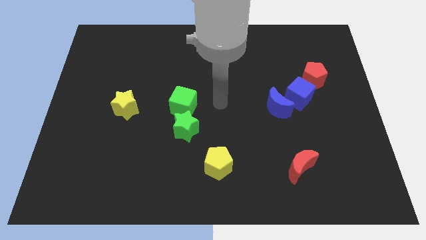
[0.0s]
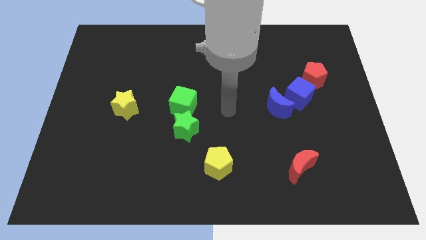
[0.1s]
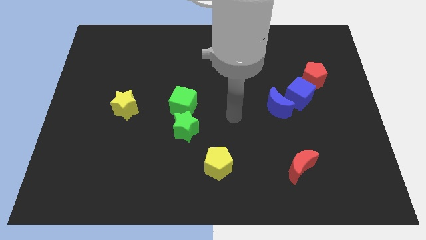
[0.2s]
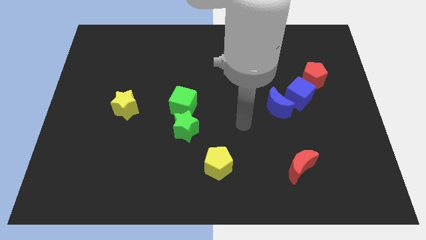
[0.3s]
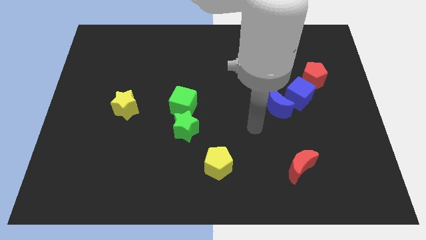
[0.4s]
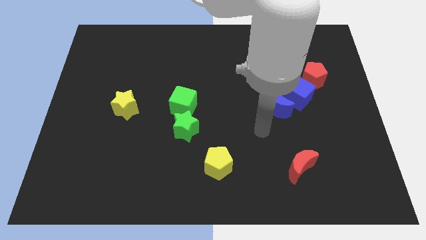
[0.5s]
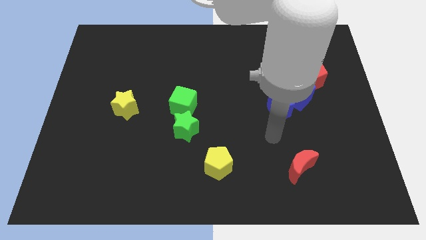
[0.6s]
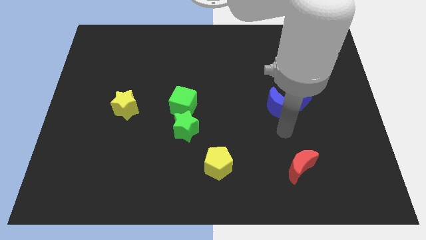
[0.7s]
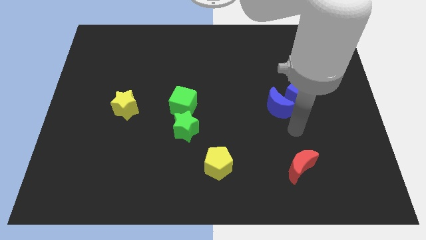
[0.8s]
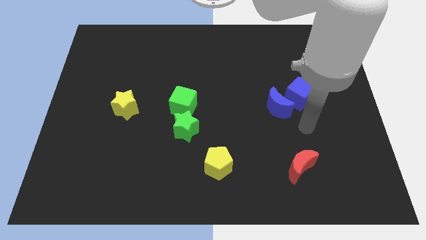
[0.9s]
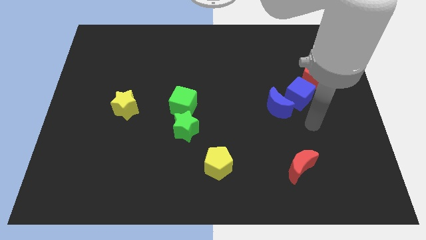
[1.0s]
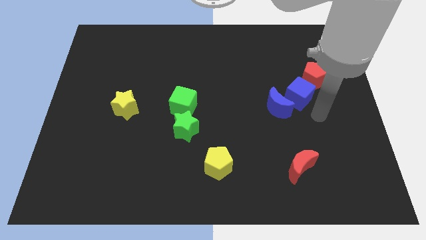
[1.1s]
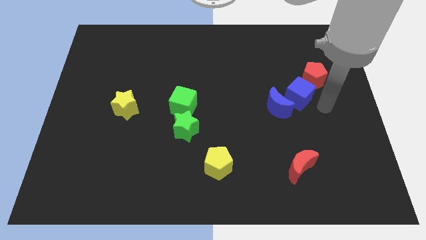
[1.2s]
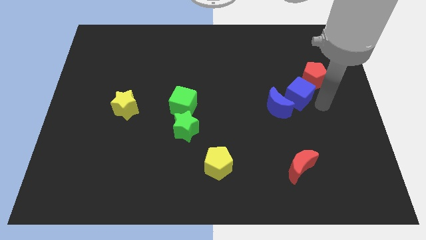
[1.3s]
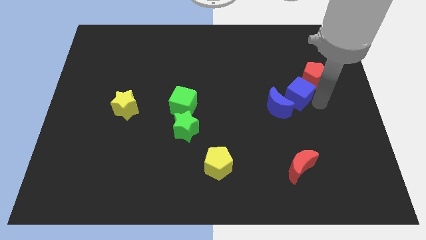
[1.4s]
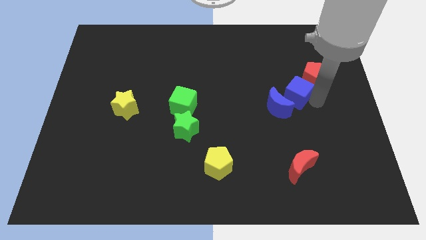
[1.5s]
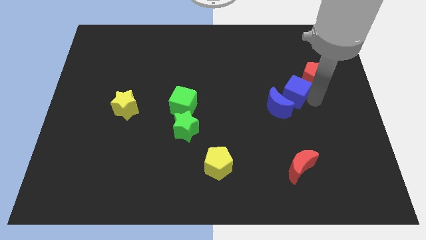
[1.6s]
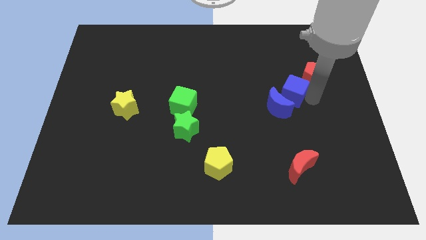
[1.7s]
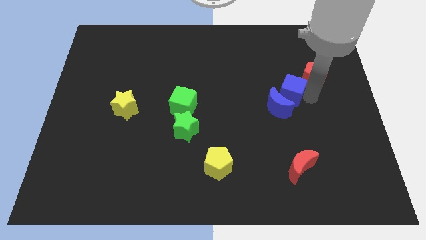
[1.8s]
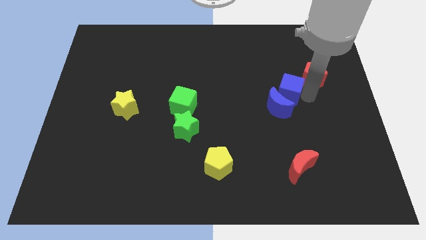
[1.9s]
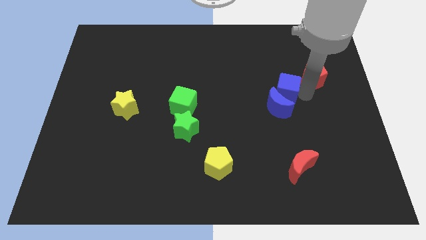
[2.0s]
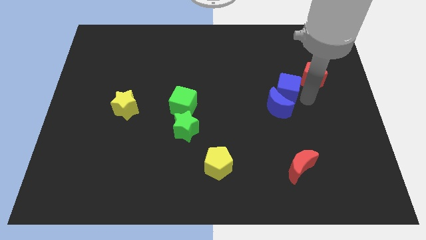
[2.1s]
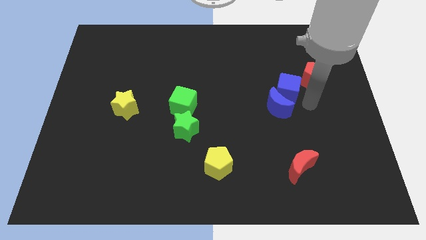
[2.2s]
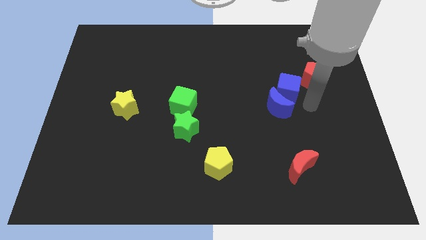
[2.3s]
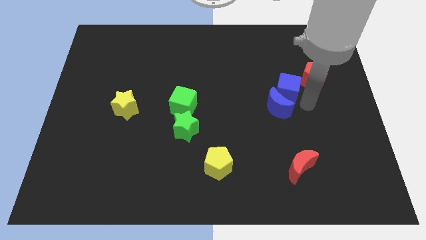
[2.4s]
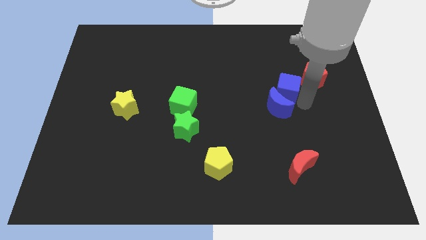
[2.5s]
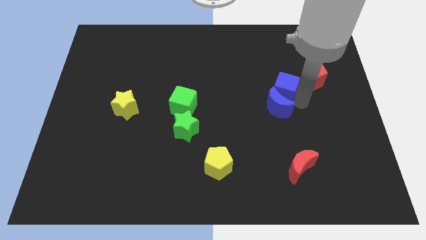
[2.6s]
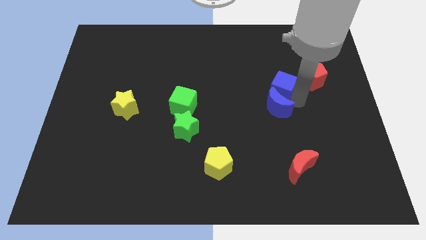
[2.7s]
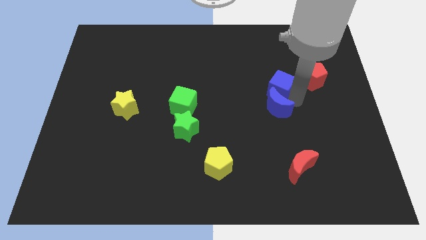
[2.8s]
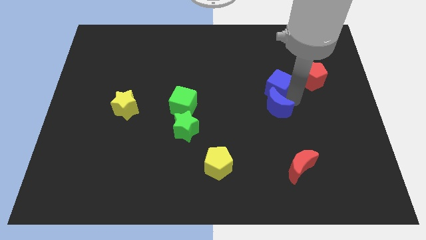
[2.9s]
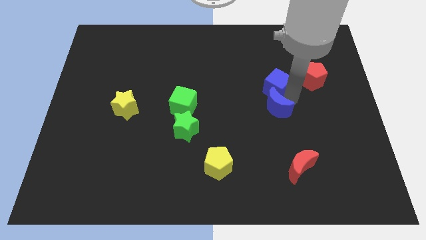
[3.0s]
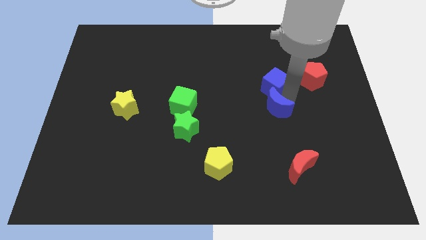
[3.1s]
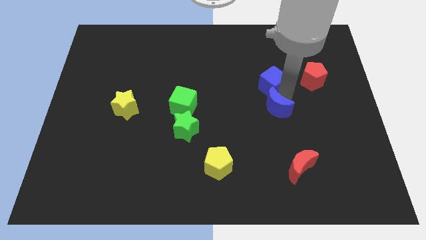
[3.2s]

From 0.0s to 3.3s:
move the blue cube upwards and to the left diagonally slightly

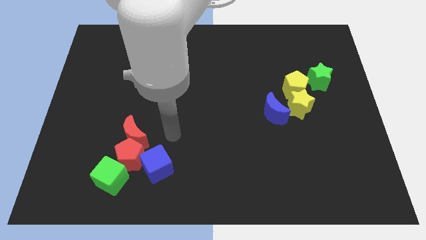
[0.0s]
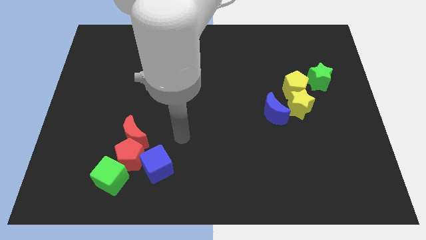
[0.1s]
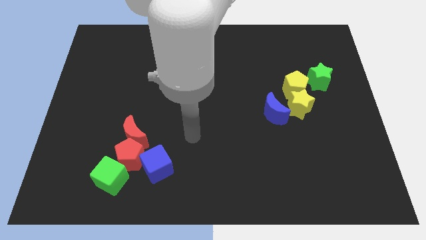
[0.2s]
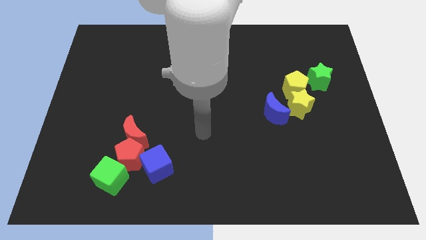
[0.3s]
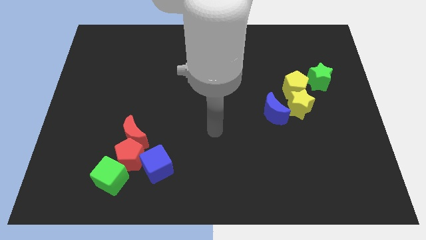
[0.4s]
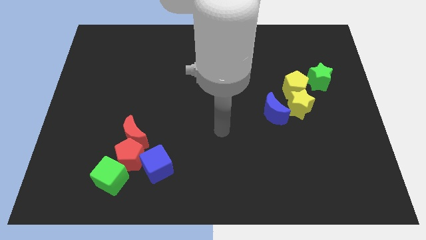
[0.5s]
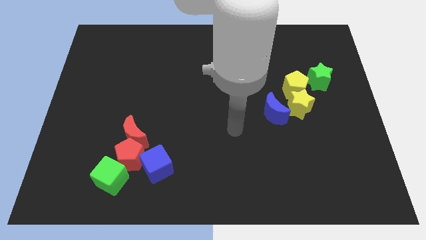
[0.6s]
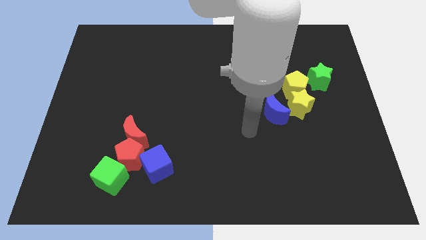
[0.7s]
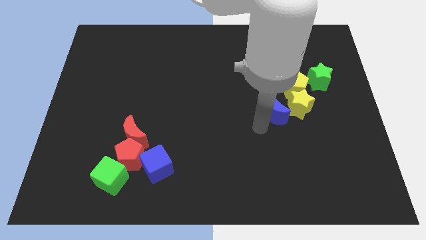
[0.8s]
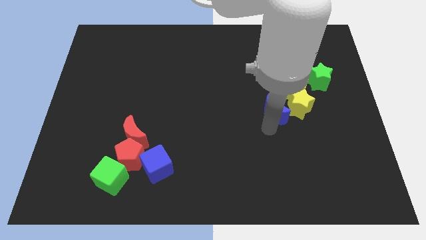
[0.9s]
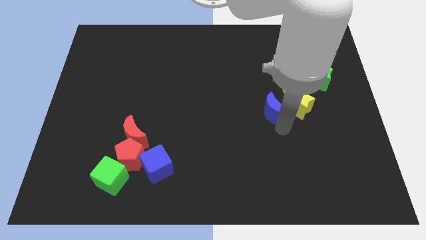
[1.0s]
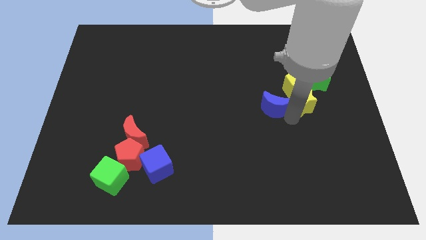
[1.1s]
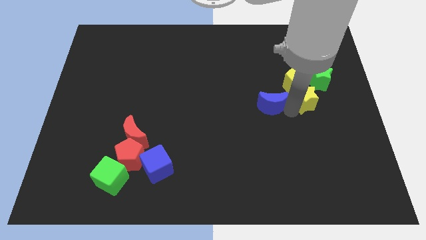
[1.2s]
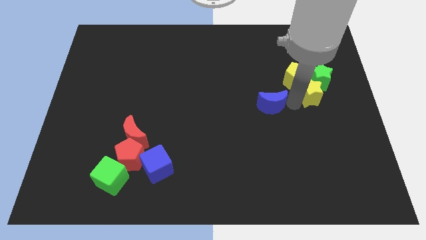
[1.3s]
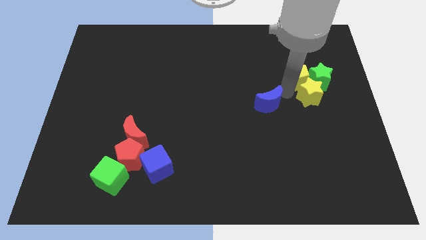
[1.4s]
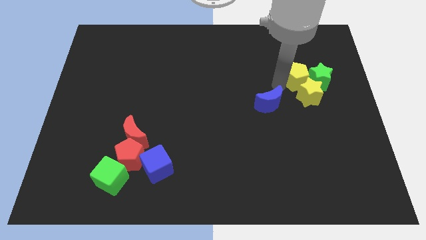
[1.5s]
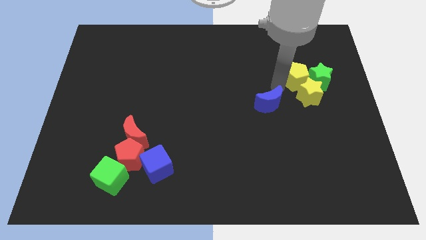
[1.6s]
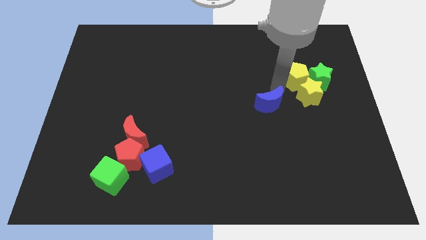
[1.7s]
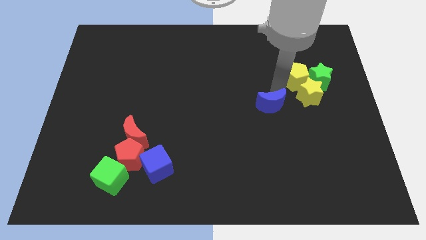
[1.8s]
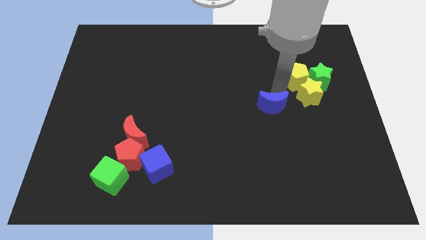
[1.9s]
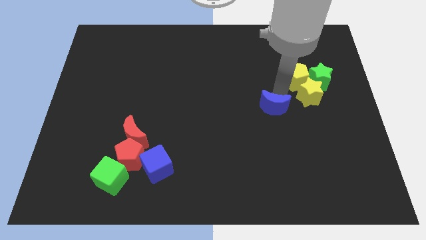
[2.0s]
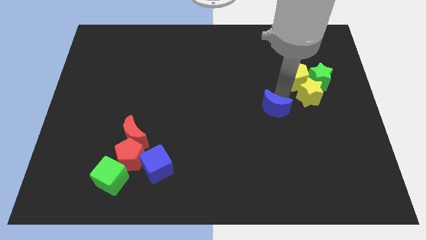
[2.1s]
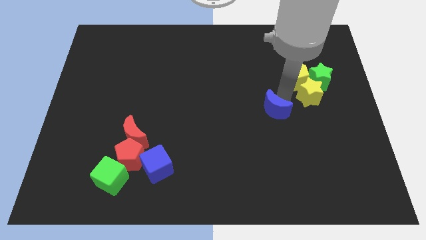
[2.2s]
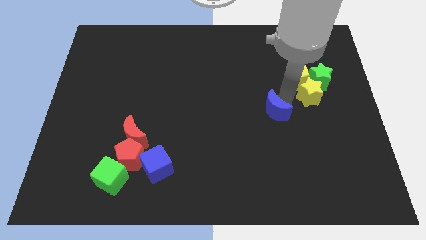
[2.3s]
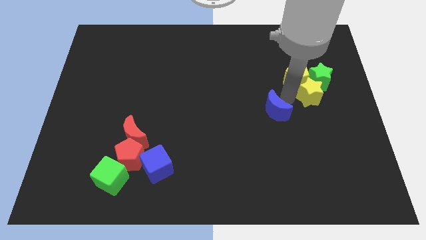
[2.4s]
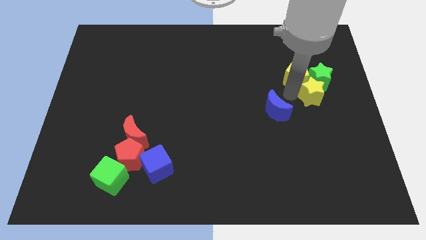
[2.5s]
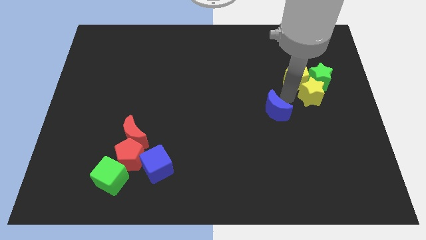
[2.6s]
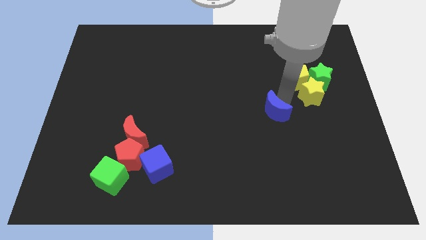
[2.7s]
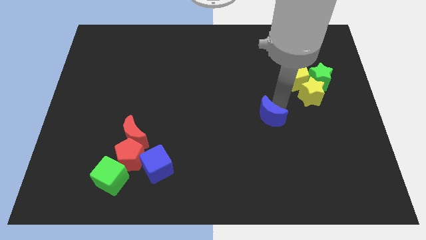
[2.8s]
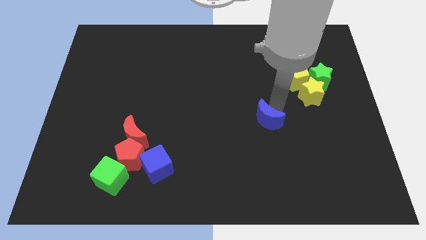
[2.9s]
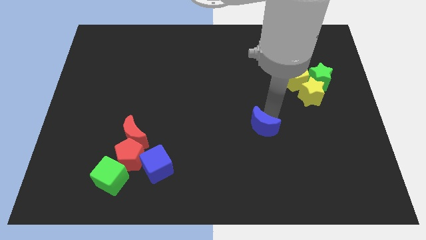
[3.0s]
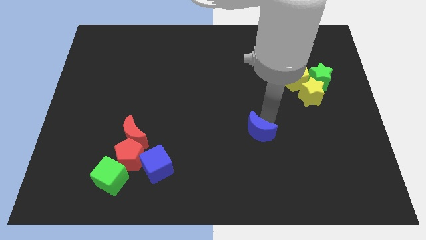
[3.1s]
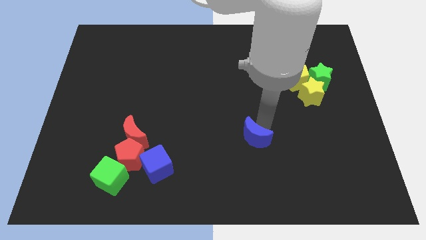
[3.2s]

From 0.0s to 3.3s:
slide the blue moon down and to the left diagonally a bit

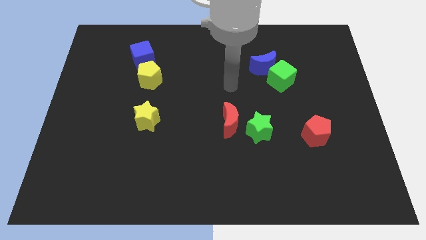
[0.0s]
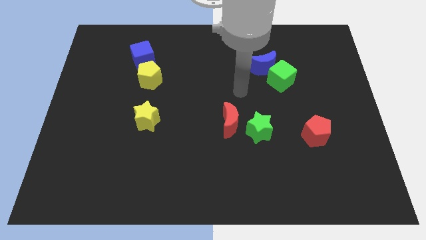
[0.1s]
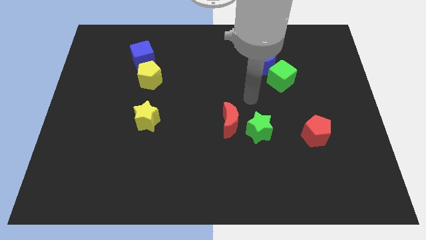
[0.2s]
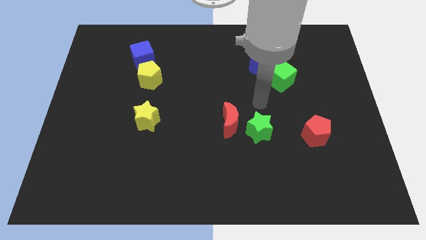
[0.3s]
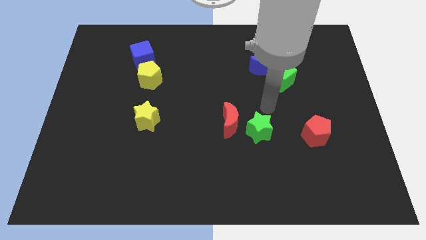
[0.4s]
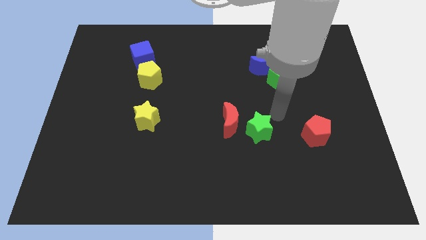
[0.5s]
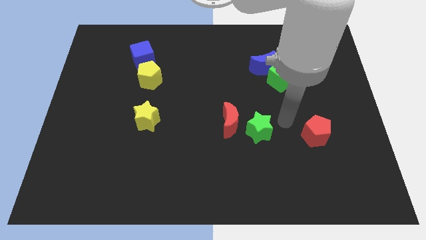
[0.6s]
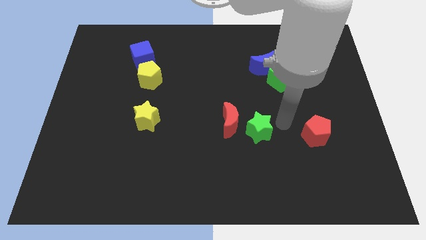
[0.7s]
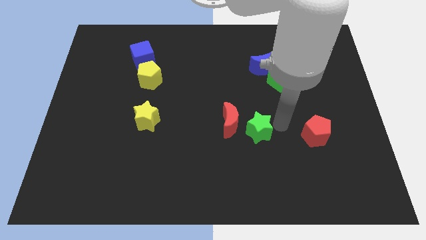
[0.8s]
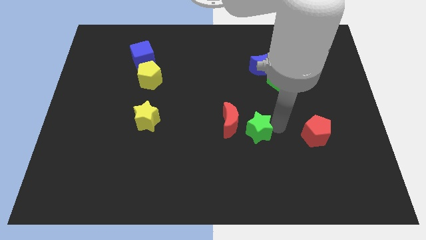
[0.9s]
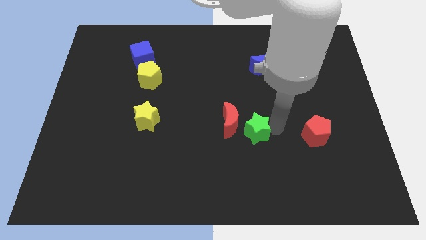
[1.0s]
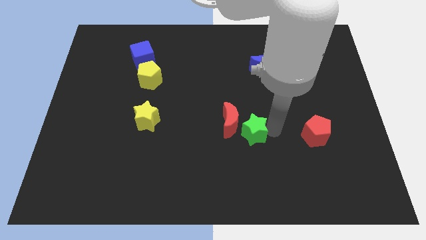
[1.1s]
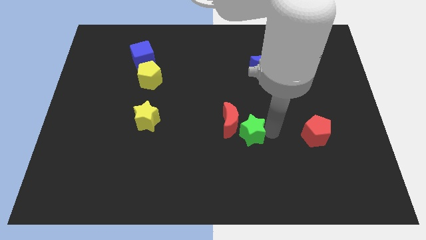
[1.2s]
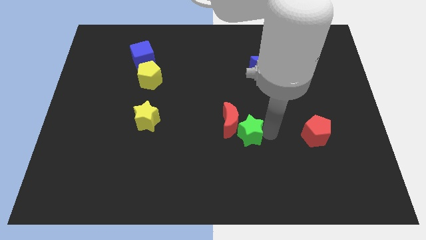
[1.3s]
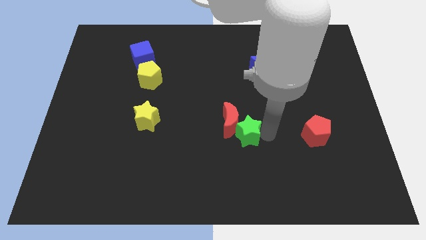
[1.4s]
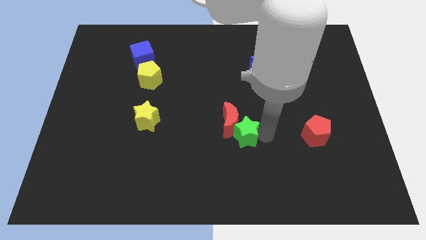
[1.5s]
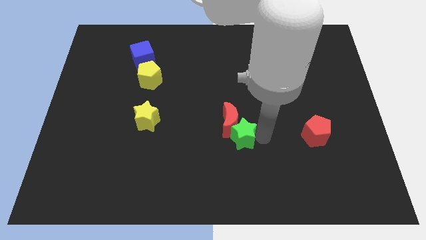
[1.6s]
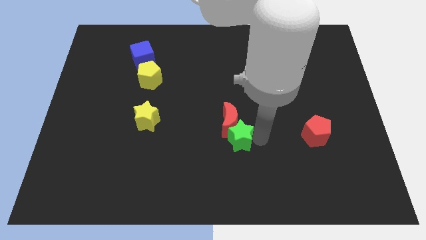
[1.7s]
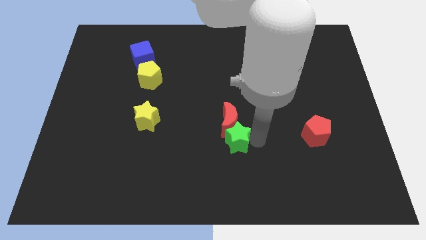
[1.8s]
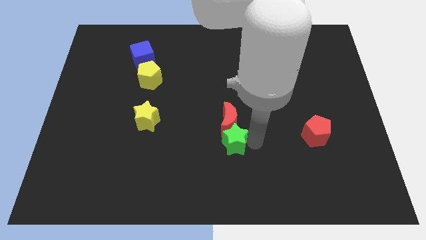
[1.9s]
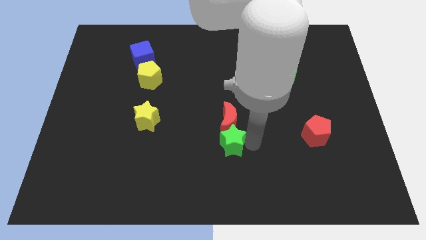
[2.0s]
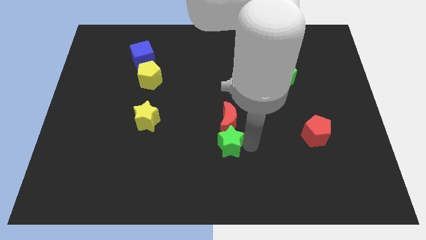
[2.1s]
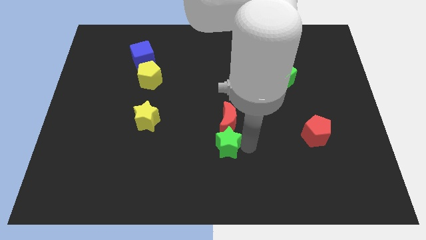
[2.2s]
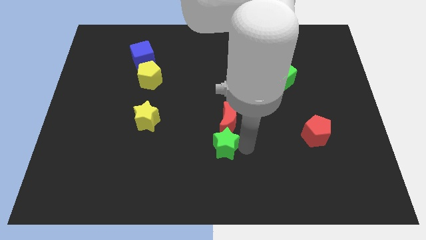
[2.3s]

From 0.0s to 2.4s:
push the green star slightly to the left
